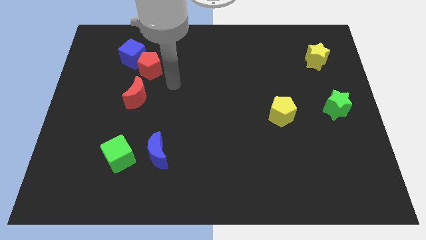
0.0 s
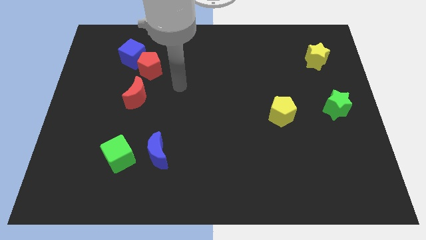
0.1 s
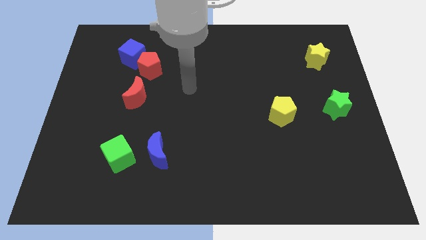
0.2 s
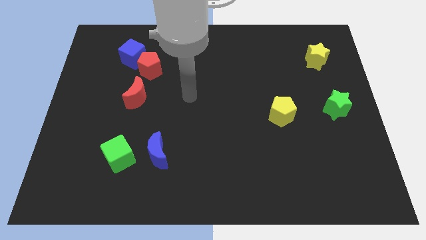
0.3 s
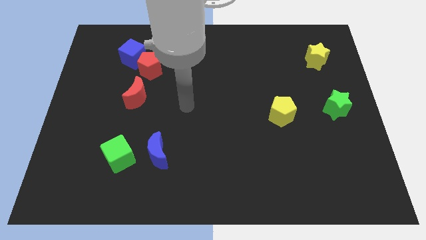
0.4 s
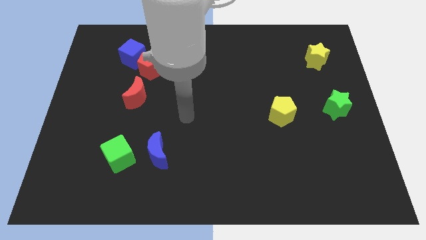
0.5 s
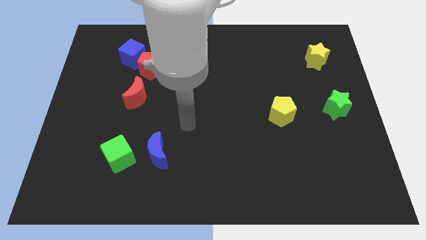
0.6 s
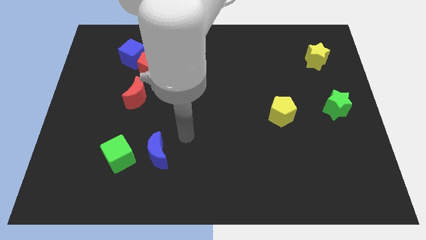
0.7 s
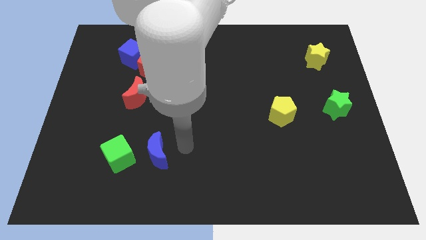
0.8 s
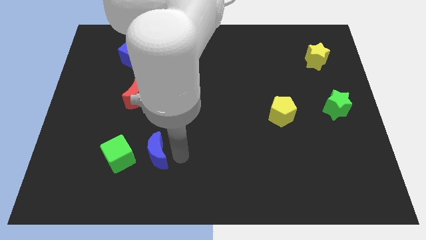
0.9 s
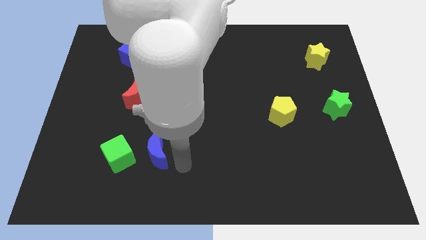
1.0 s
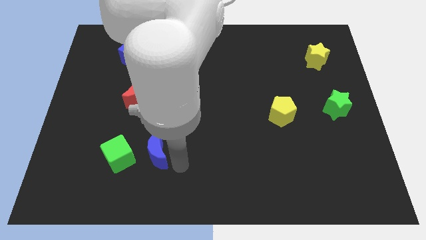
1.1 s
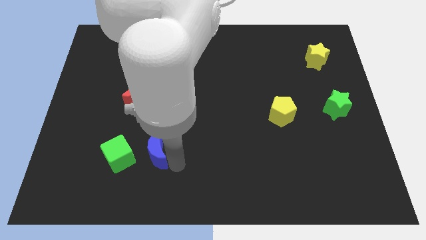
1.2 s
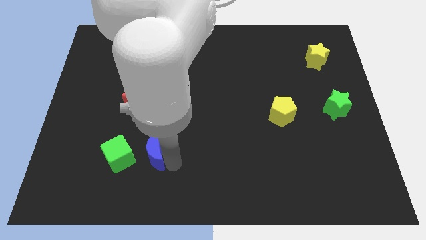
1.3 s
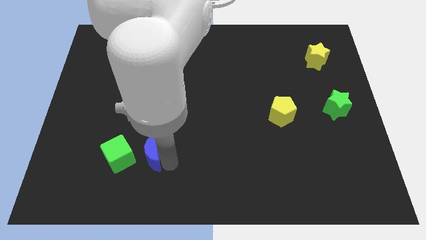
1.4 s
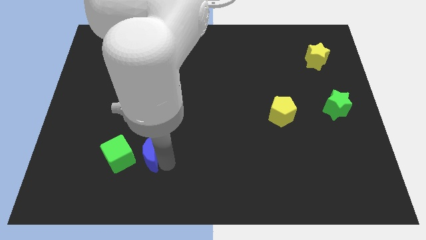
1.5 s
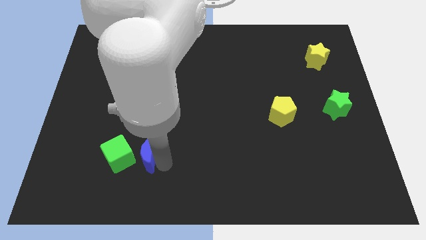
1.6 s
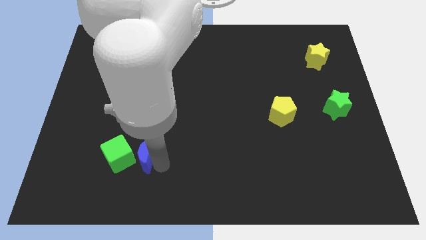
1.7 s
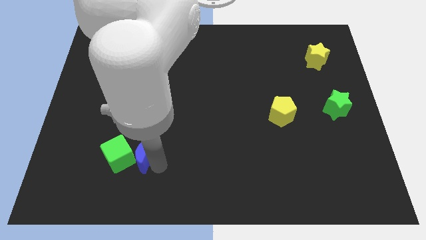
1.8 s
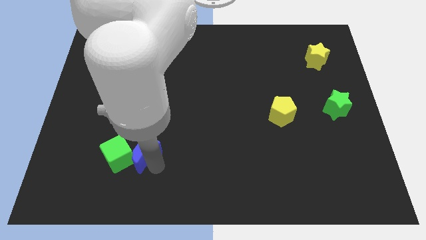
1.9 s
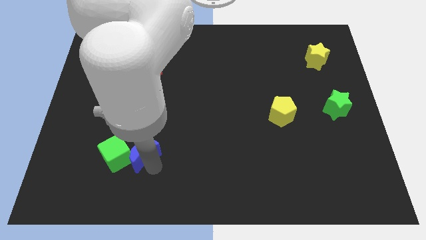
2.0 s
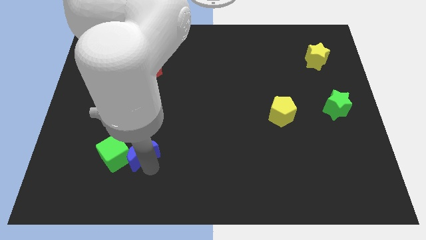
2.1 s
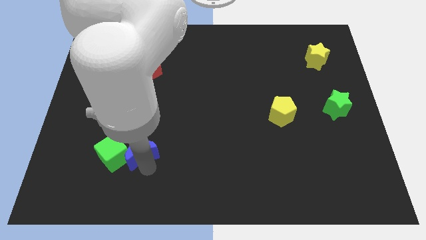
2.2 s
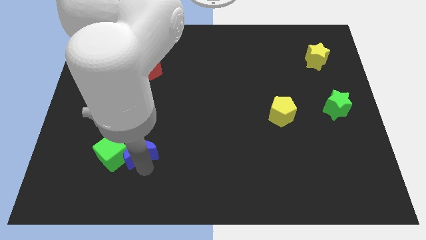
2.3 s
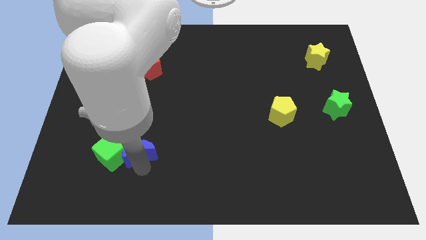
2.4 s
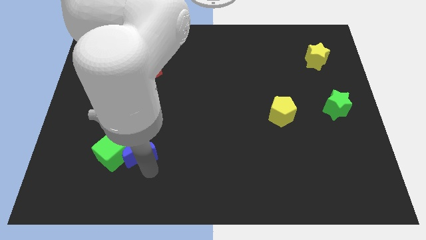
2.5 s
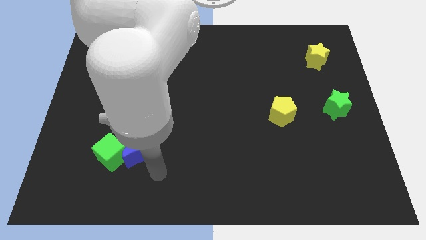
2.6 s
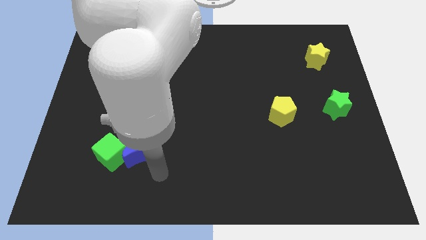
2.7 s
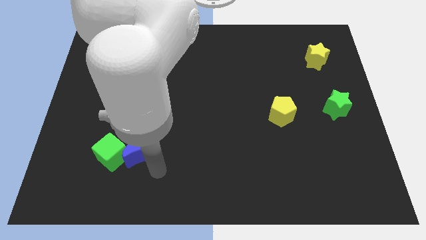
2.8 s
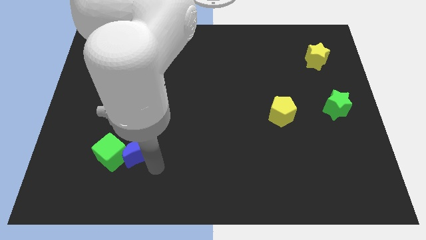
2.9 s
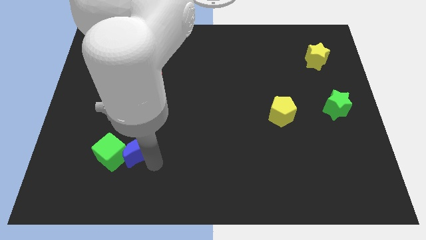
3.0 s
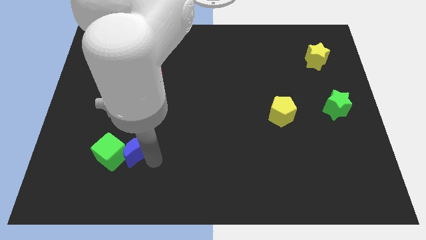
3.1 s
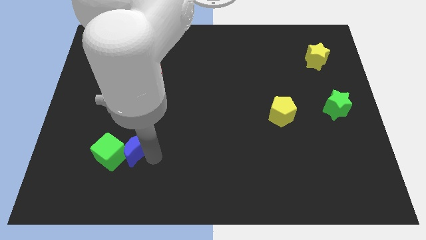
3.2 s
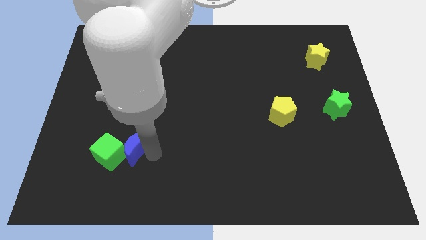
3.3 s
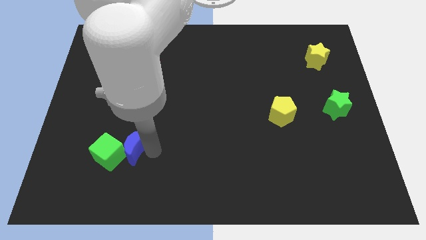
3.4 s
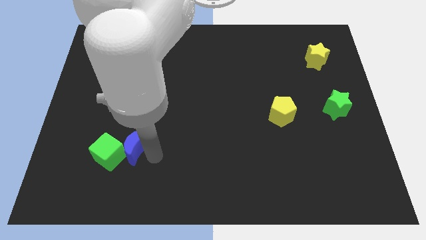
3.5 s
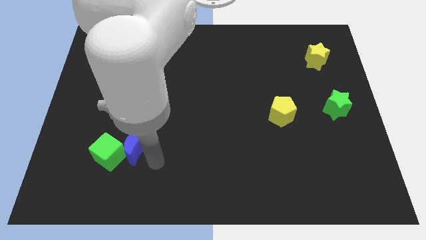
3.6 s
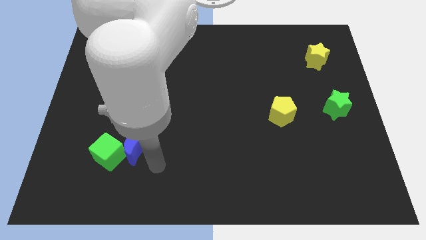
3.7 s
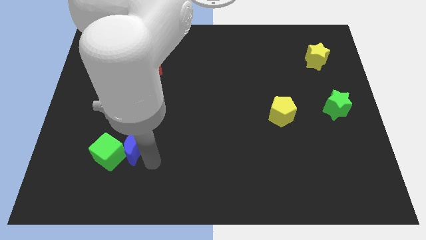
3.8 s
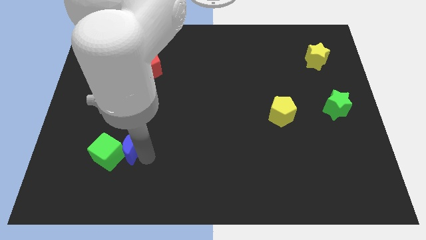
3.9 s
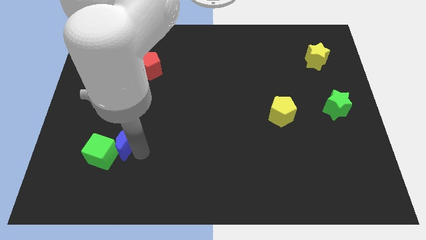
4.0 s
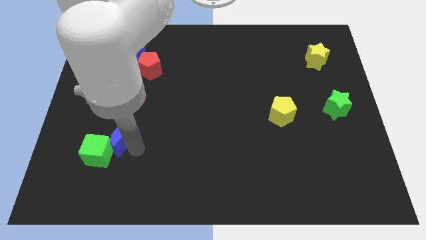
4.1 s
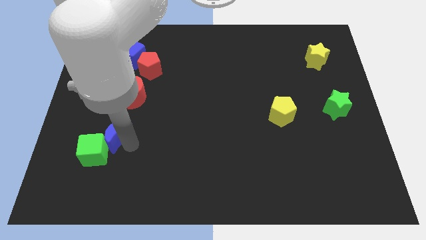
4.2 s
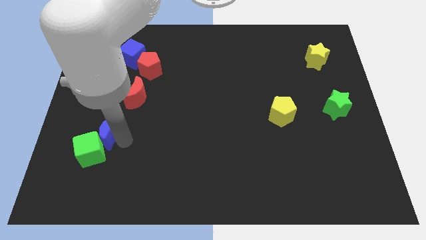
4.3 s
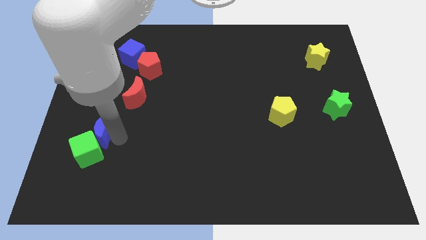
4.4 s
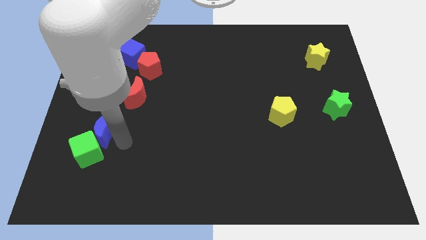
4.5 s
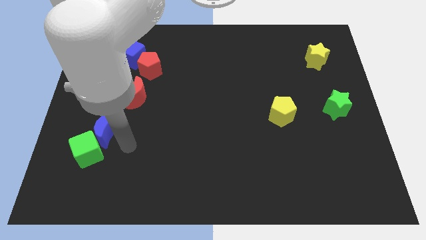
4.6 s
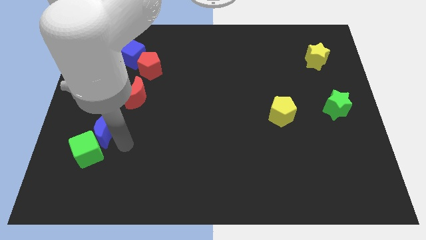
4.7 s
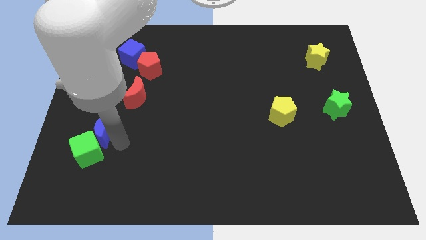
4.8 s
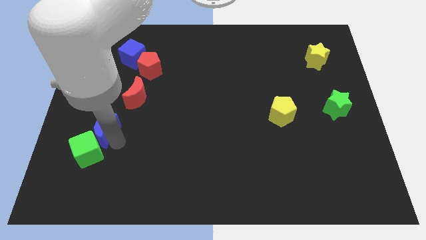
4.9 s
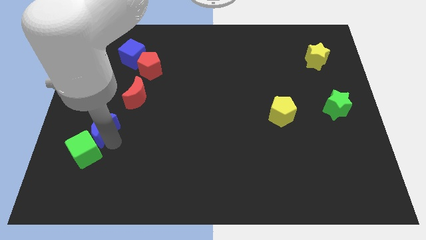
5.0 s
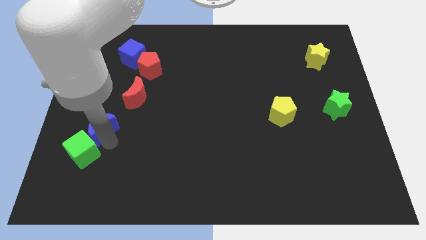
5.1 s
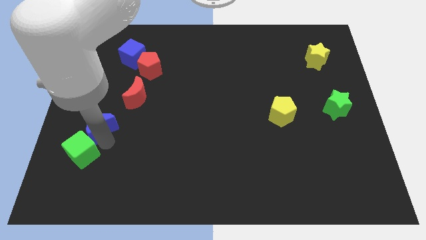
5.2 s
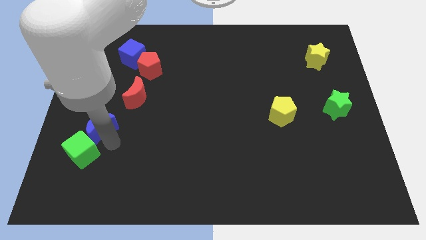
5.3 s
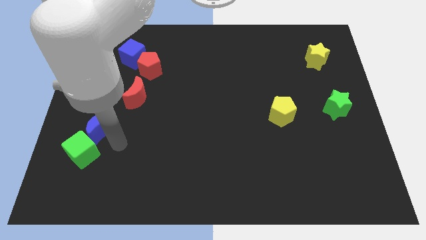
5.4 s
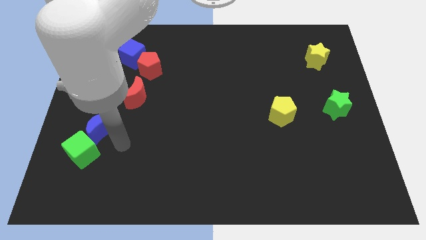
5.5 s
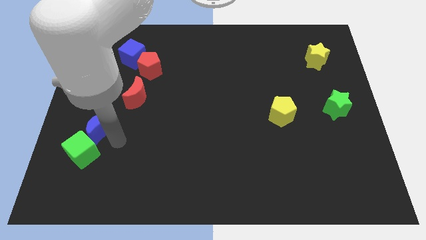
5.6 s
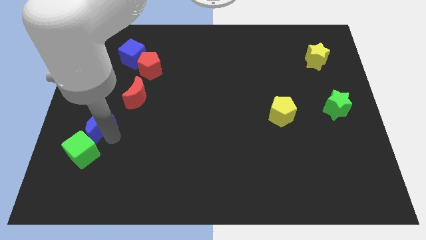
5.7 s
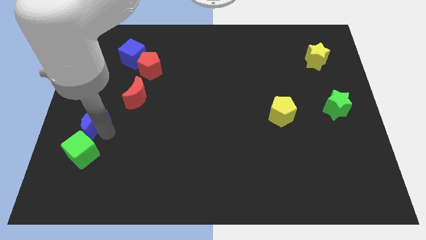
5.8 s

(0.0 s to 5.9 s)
move the blue moon to the left side of the board

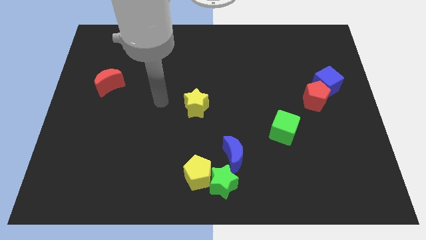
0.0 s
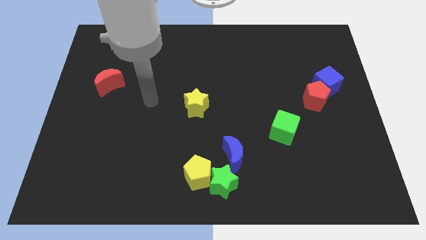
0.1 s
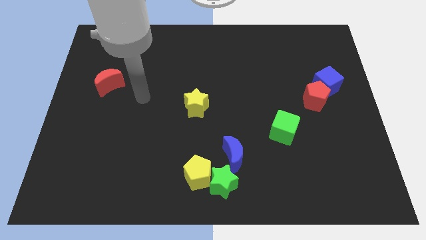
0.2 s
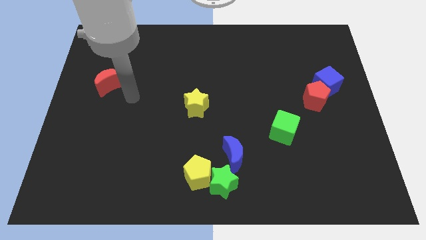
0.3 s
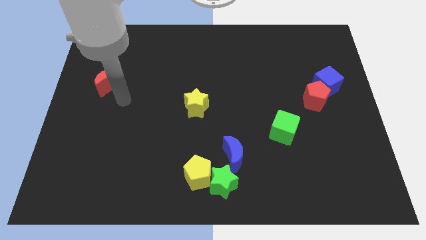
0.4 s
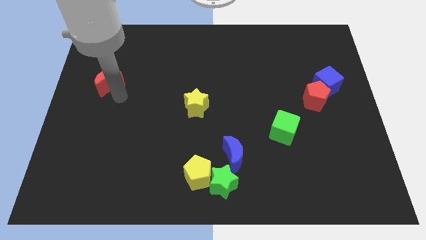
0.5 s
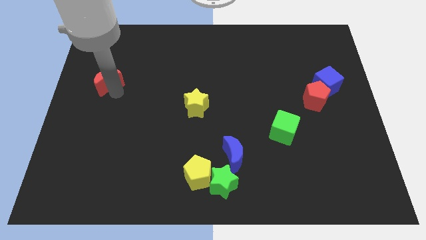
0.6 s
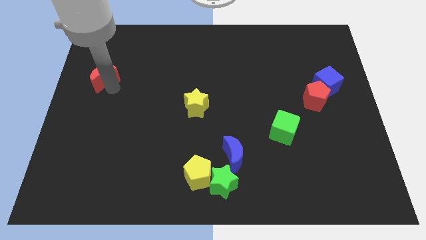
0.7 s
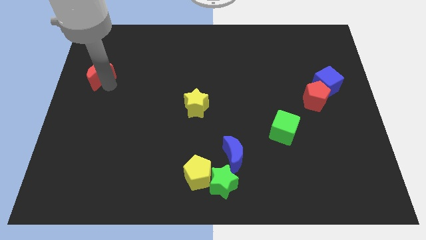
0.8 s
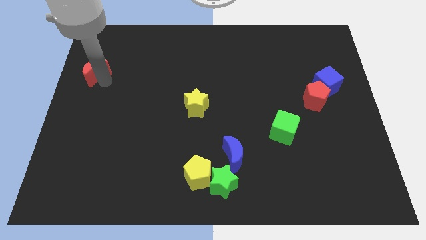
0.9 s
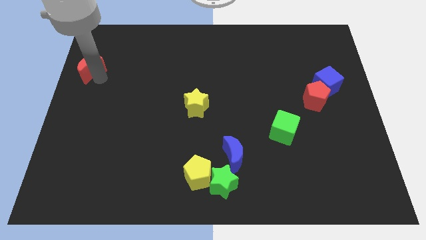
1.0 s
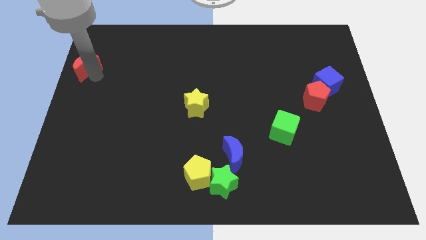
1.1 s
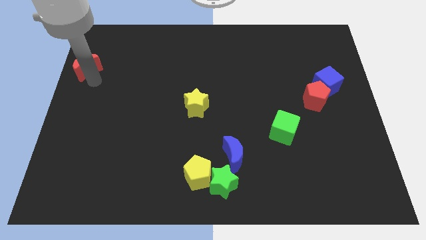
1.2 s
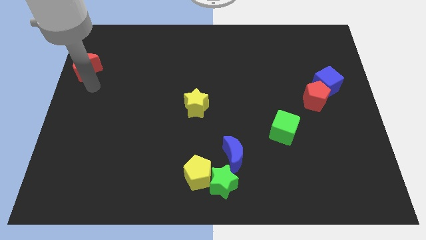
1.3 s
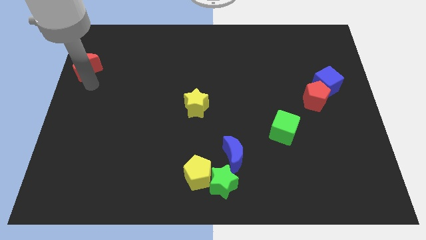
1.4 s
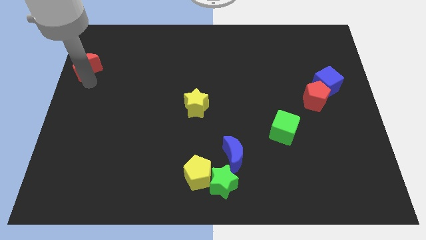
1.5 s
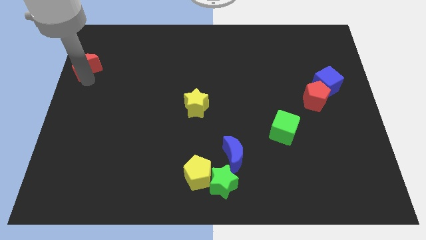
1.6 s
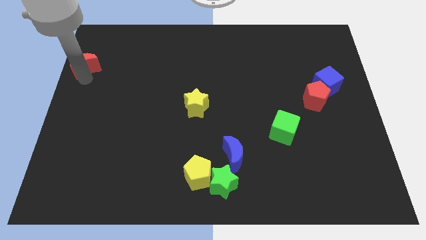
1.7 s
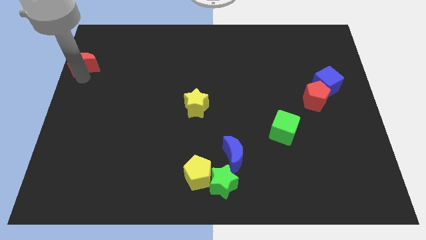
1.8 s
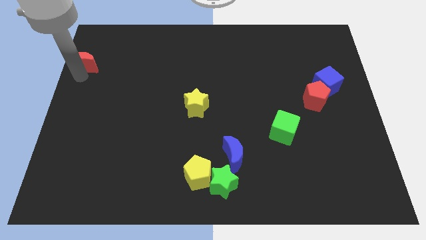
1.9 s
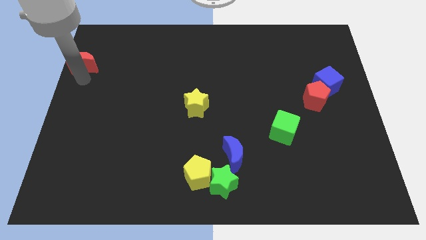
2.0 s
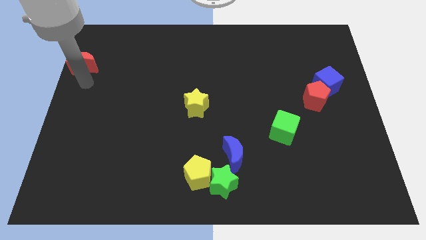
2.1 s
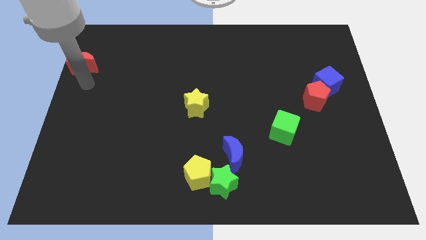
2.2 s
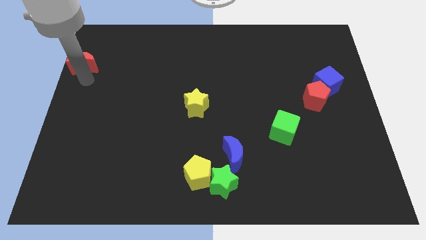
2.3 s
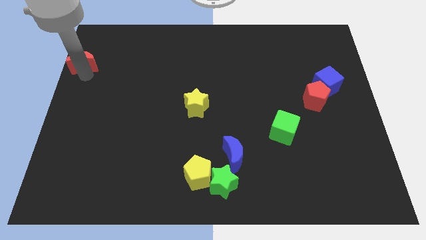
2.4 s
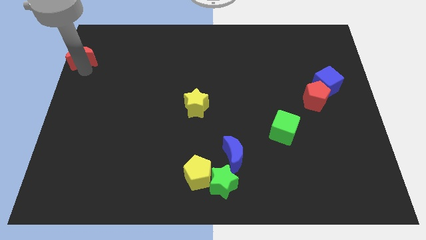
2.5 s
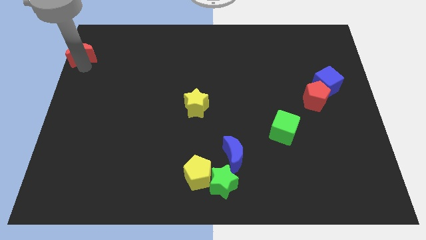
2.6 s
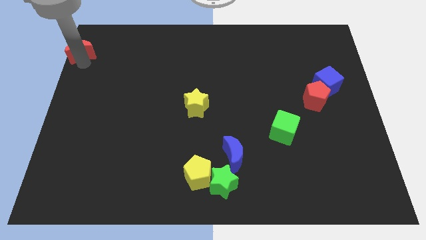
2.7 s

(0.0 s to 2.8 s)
move the red moon to the top left of the board
